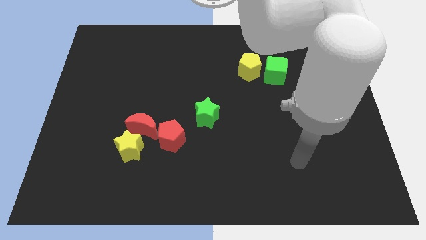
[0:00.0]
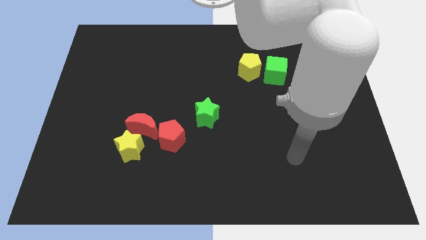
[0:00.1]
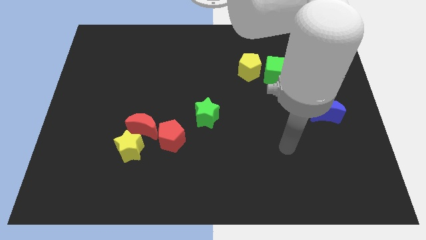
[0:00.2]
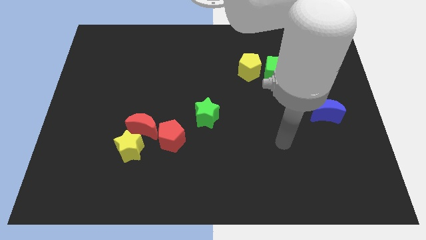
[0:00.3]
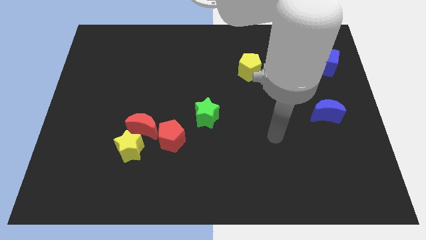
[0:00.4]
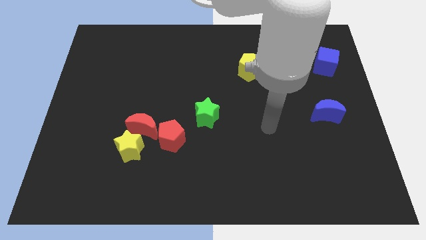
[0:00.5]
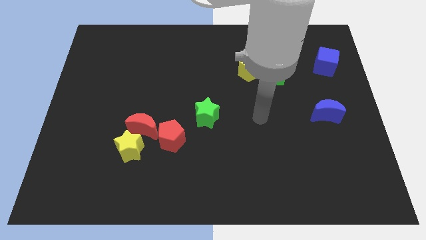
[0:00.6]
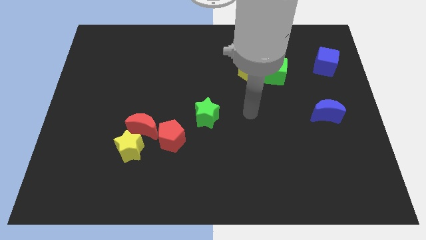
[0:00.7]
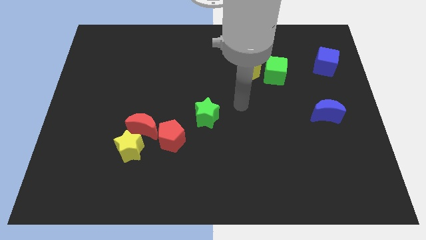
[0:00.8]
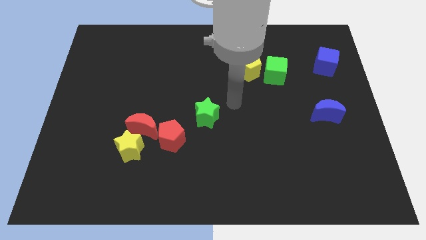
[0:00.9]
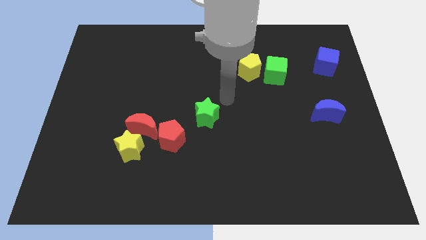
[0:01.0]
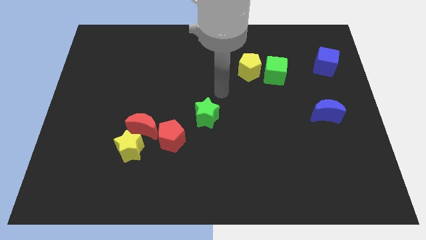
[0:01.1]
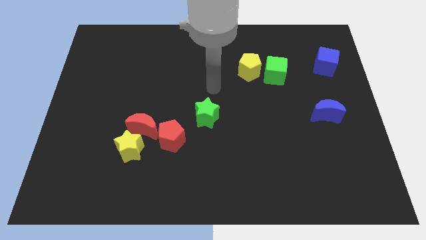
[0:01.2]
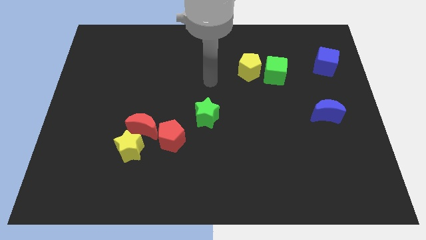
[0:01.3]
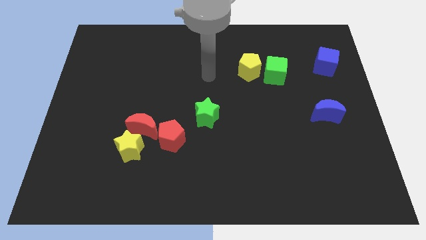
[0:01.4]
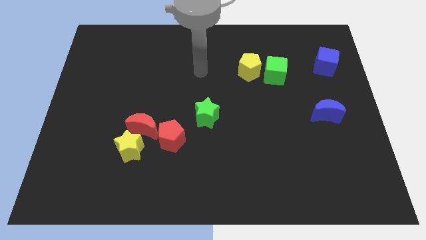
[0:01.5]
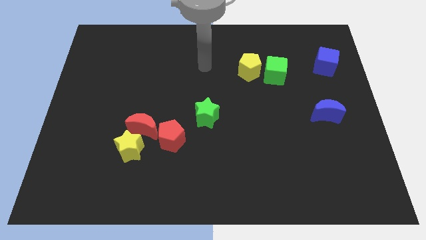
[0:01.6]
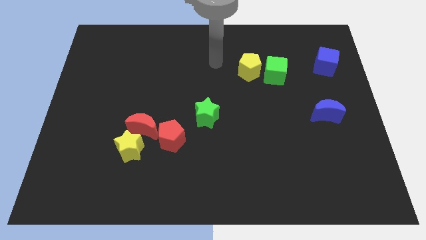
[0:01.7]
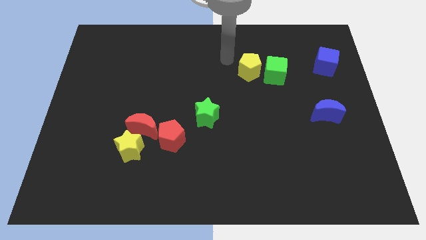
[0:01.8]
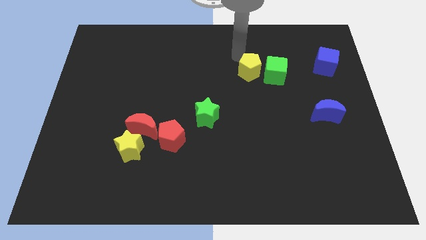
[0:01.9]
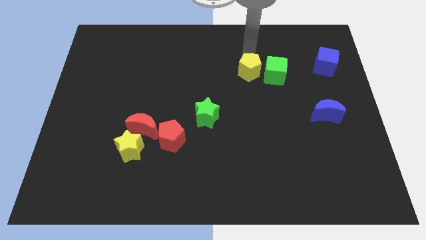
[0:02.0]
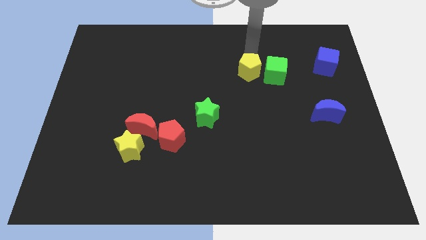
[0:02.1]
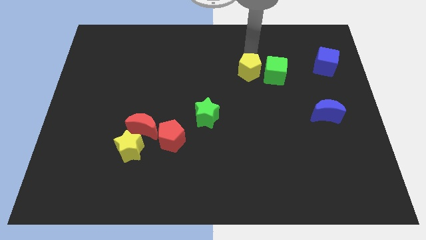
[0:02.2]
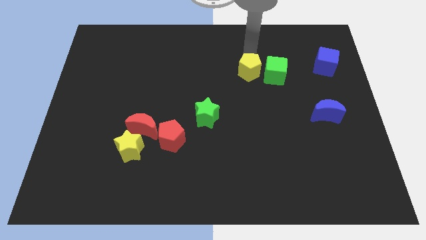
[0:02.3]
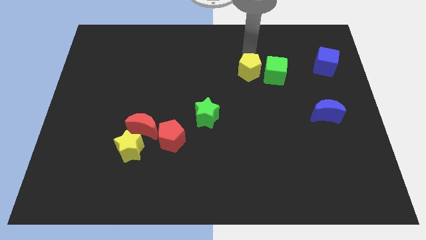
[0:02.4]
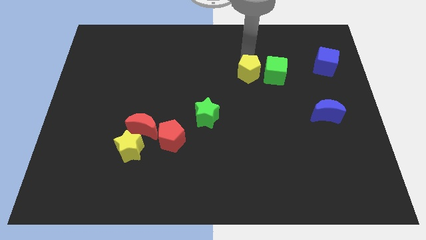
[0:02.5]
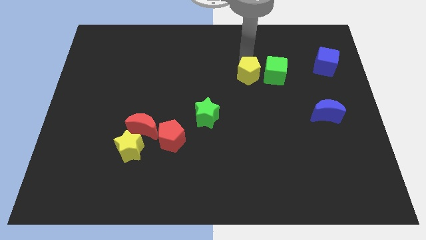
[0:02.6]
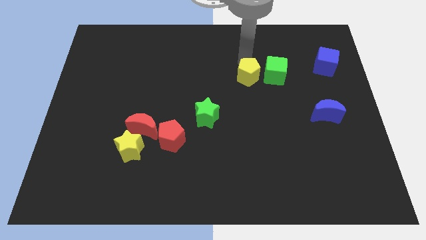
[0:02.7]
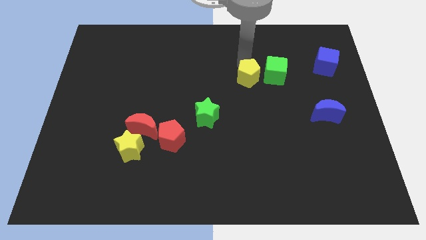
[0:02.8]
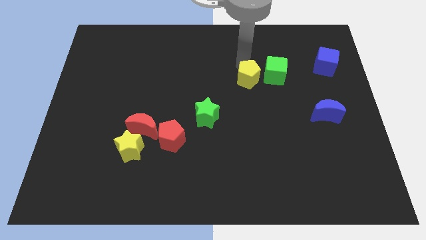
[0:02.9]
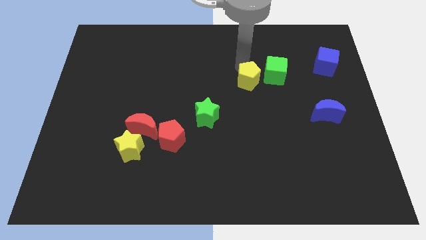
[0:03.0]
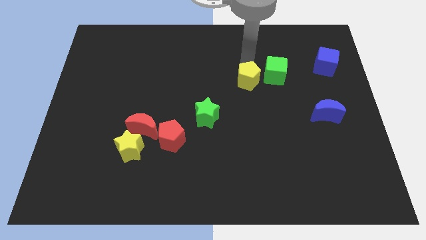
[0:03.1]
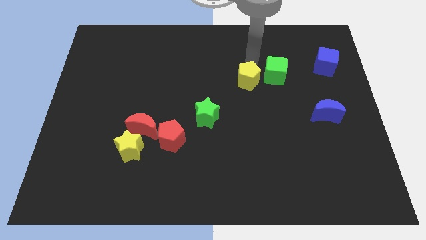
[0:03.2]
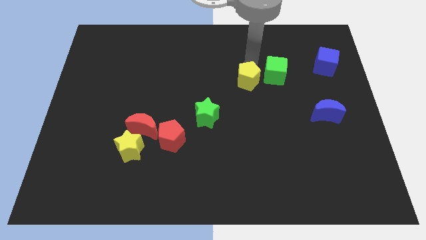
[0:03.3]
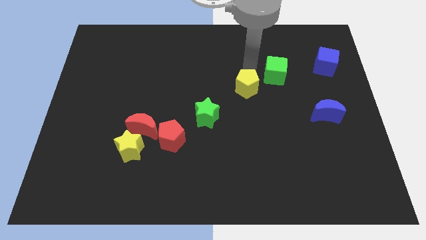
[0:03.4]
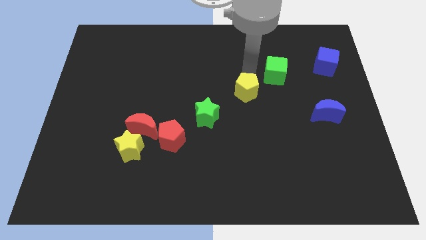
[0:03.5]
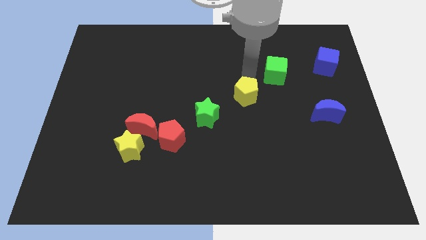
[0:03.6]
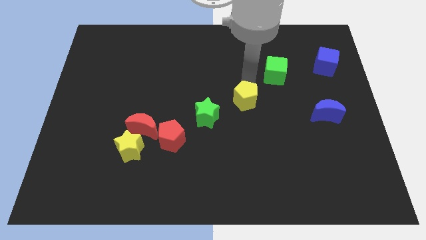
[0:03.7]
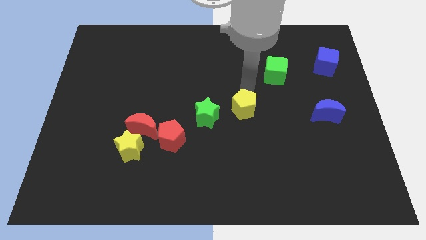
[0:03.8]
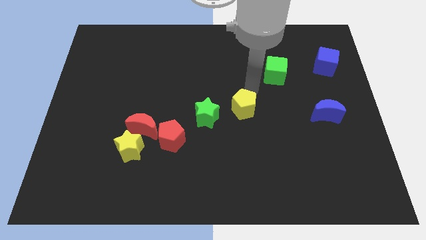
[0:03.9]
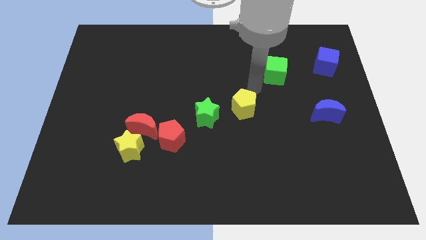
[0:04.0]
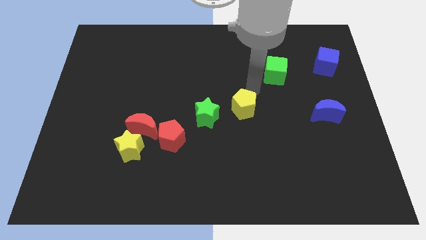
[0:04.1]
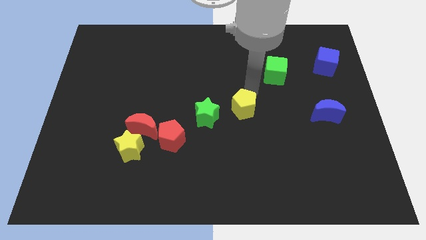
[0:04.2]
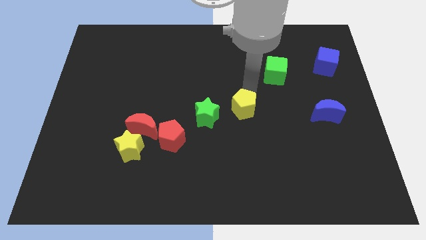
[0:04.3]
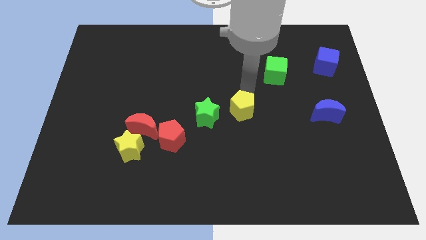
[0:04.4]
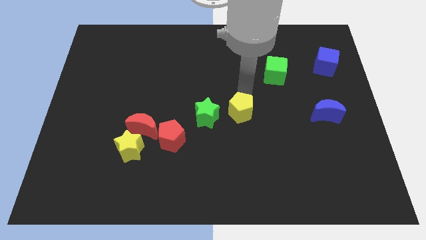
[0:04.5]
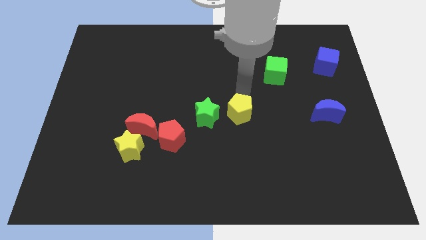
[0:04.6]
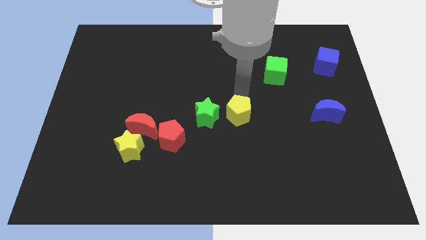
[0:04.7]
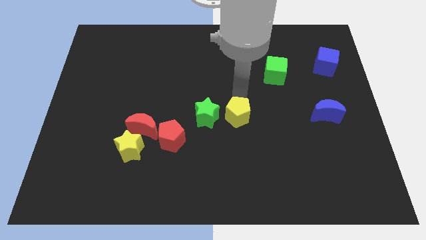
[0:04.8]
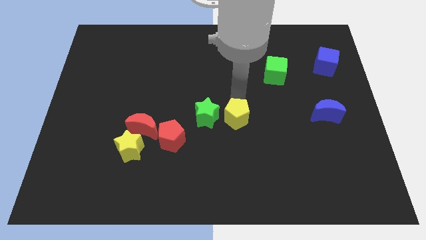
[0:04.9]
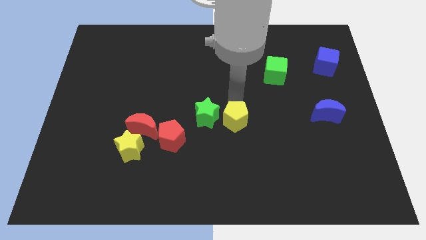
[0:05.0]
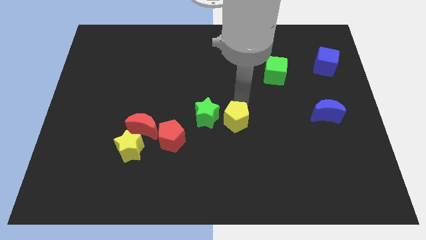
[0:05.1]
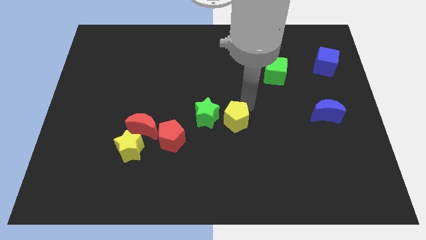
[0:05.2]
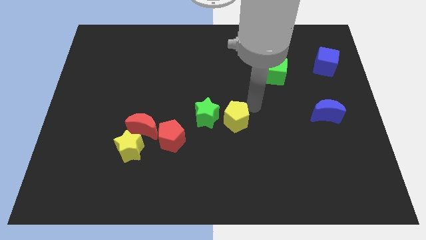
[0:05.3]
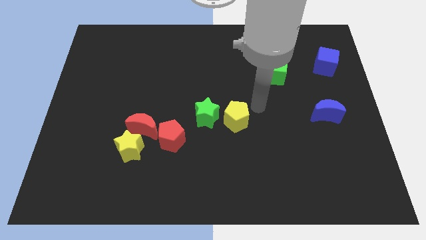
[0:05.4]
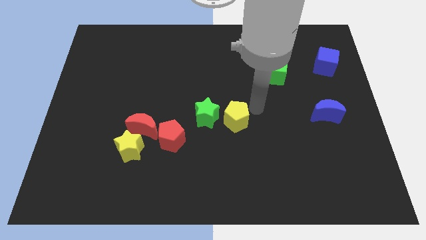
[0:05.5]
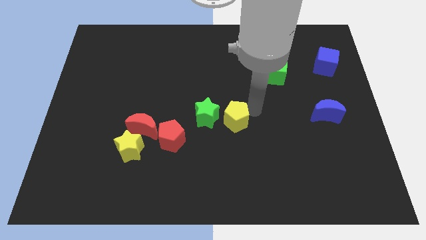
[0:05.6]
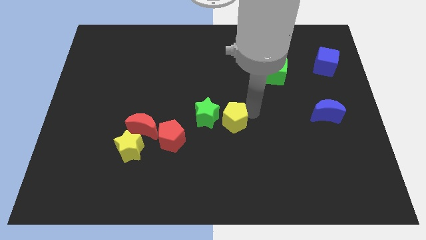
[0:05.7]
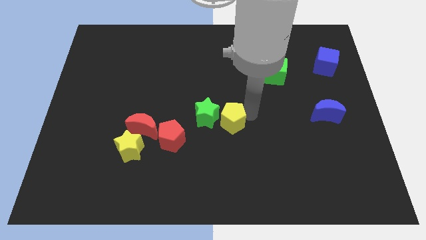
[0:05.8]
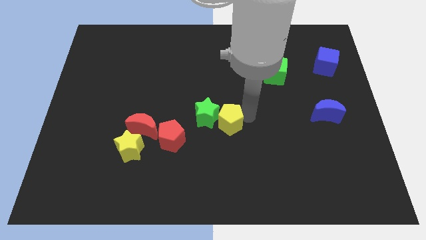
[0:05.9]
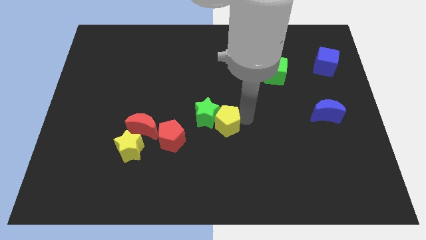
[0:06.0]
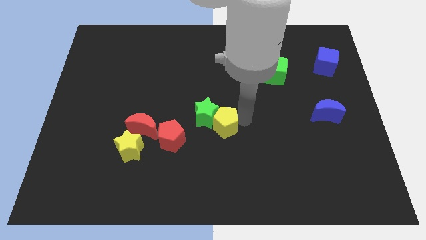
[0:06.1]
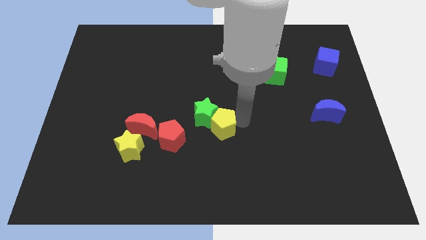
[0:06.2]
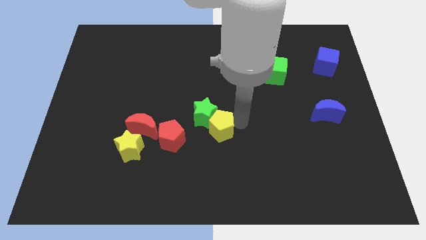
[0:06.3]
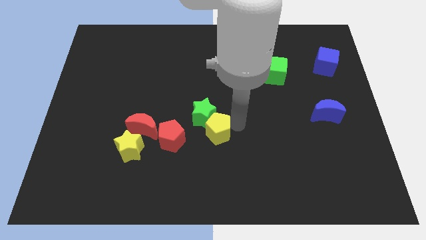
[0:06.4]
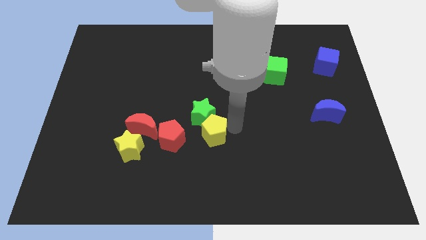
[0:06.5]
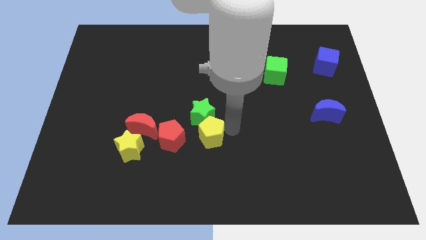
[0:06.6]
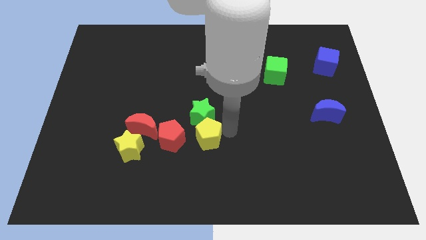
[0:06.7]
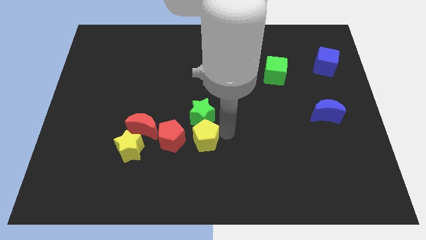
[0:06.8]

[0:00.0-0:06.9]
push the yellow pentagon downwards and to the left diagonally

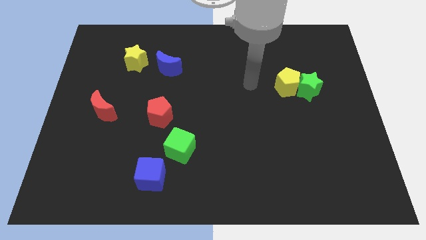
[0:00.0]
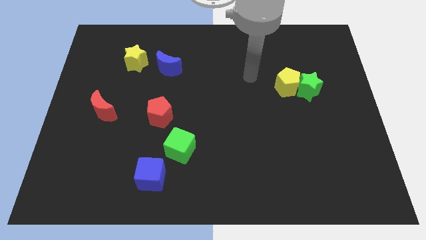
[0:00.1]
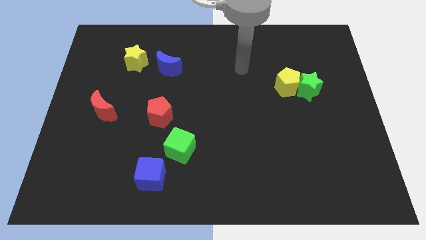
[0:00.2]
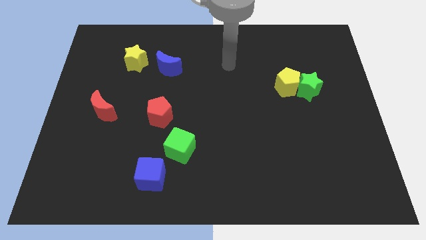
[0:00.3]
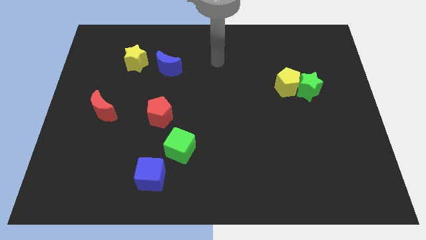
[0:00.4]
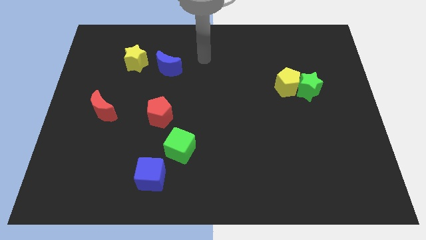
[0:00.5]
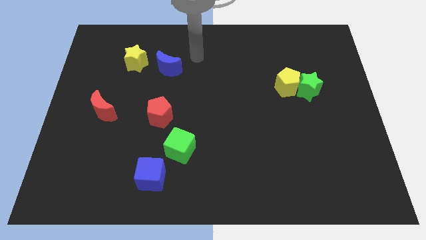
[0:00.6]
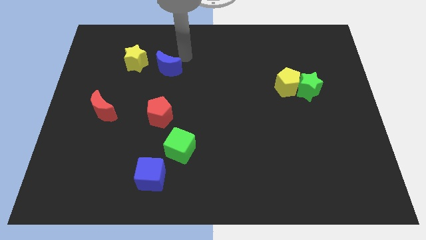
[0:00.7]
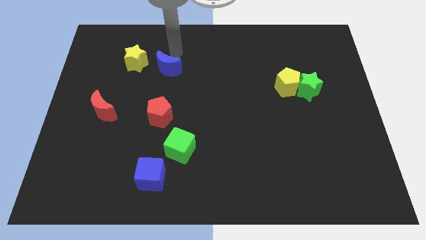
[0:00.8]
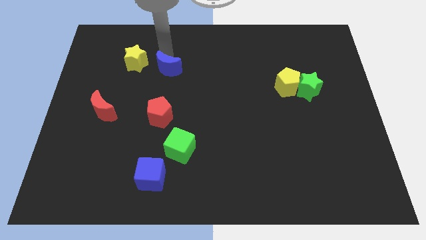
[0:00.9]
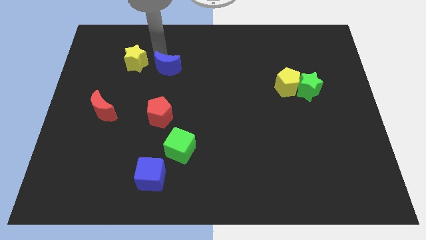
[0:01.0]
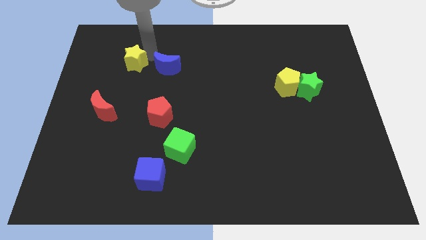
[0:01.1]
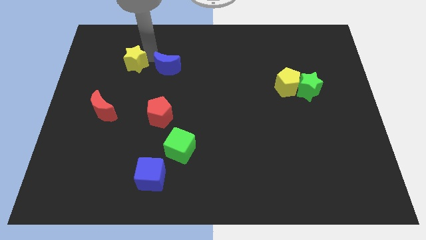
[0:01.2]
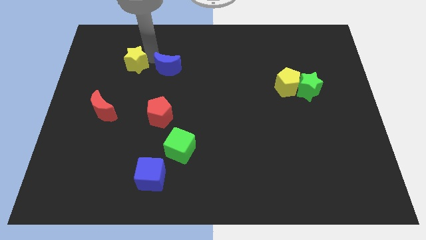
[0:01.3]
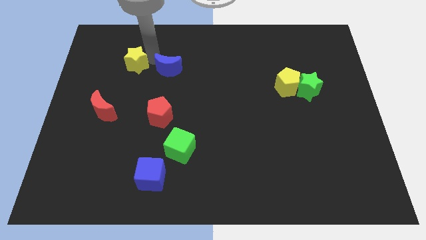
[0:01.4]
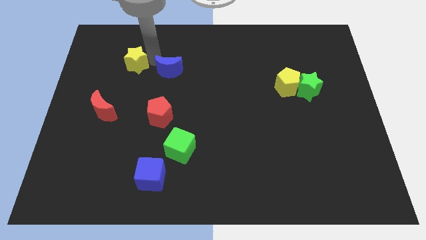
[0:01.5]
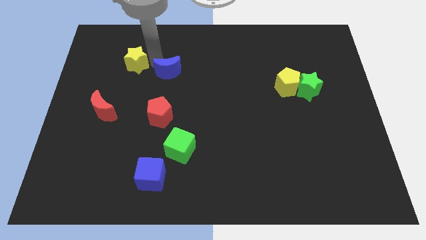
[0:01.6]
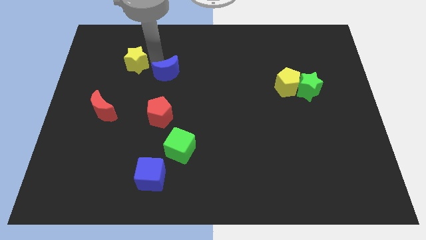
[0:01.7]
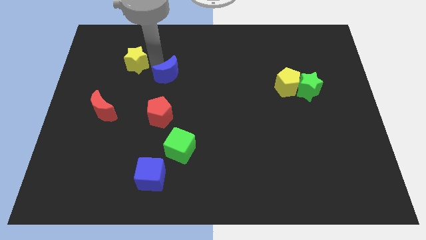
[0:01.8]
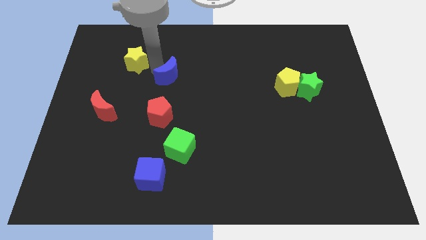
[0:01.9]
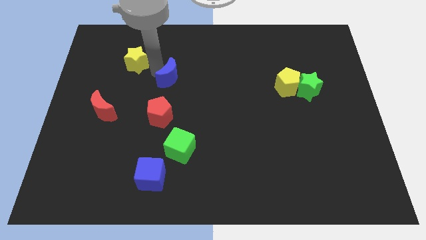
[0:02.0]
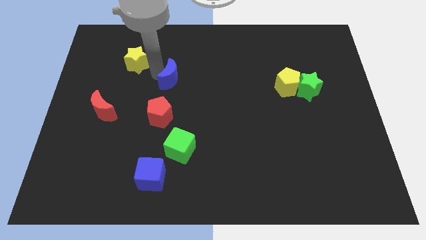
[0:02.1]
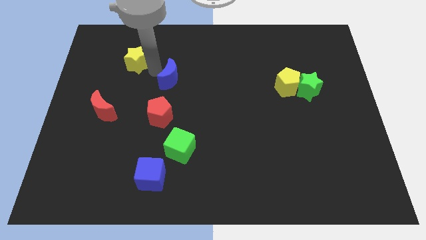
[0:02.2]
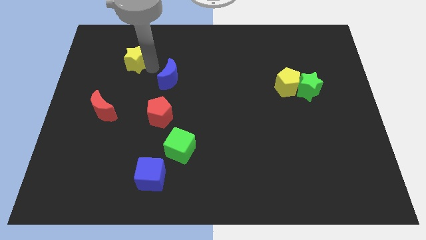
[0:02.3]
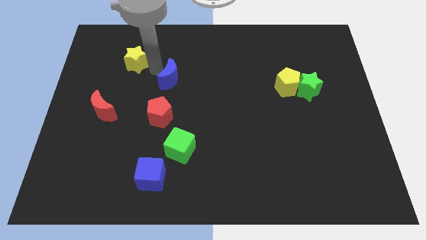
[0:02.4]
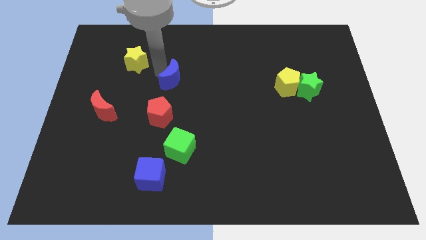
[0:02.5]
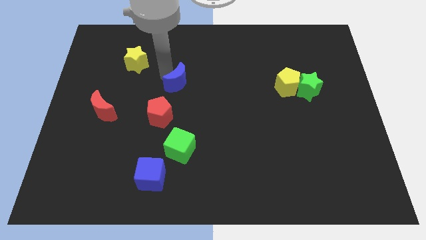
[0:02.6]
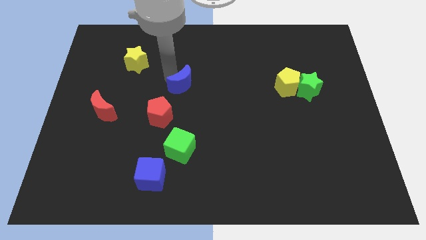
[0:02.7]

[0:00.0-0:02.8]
move the blue moon slightly down and then to the right
